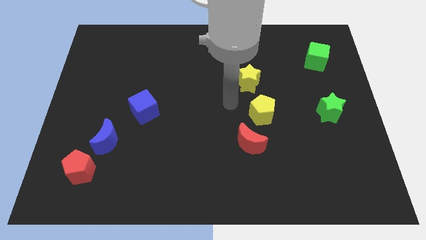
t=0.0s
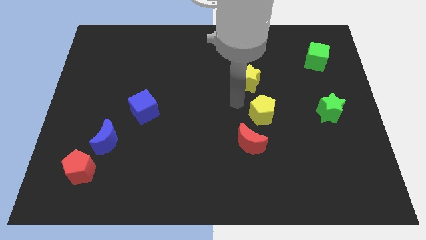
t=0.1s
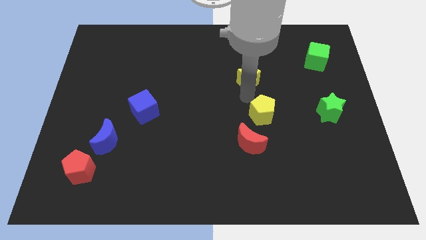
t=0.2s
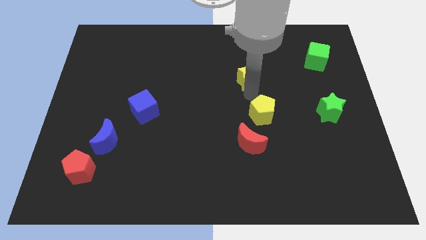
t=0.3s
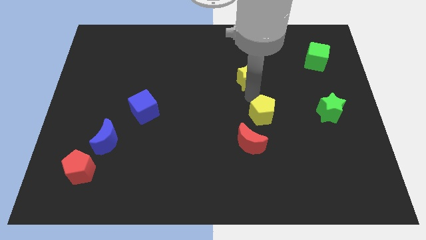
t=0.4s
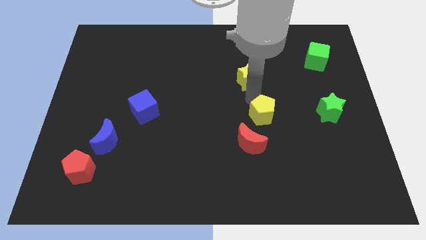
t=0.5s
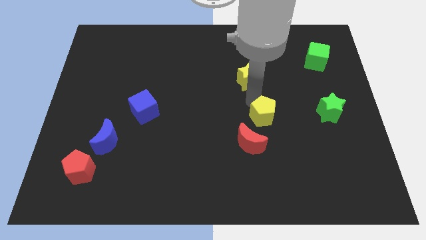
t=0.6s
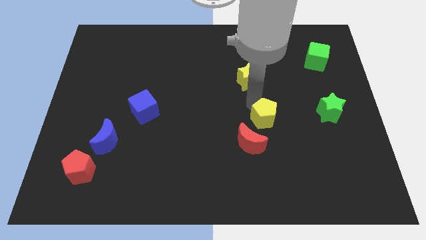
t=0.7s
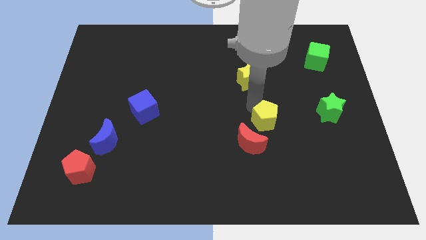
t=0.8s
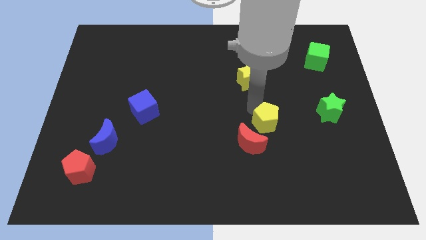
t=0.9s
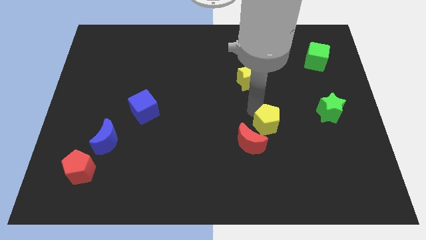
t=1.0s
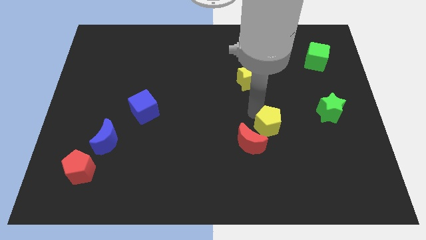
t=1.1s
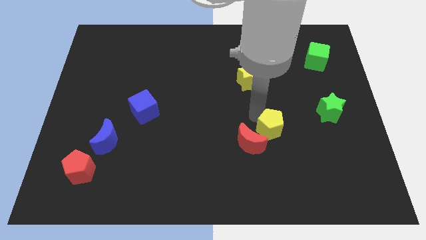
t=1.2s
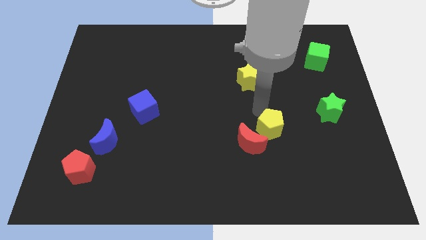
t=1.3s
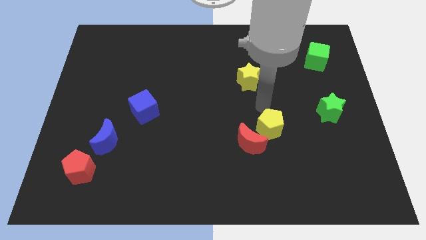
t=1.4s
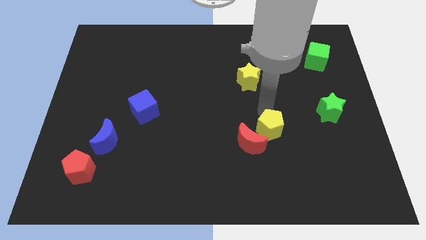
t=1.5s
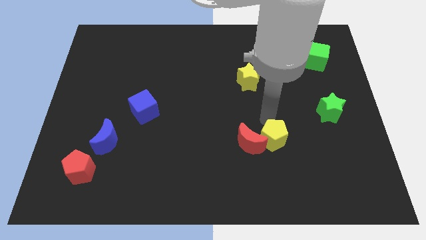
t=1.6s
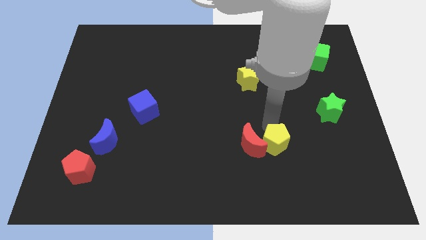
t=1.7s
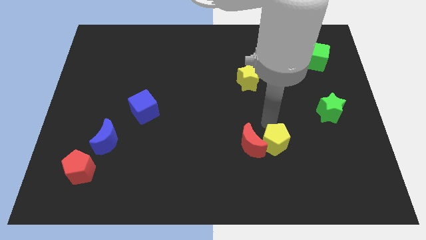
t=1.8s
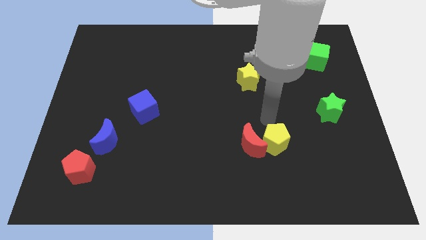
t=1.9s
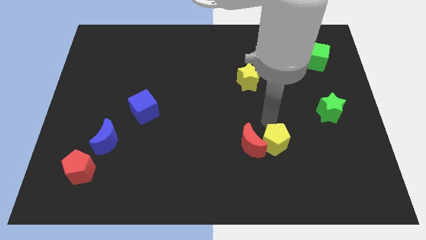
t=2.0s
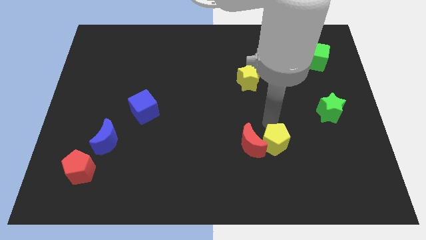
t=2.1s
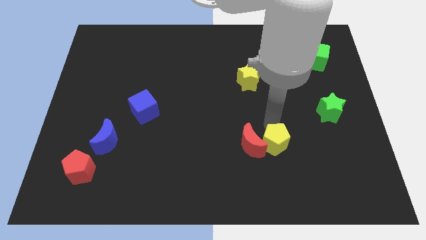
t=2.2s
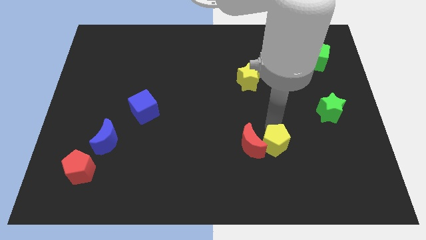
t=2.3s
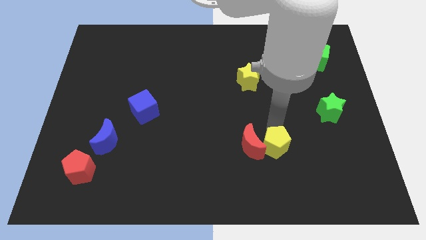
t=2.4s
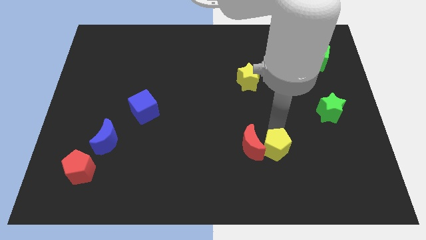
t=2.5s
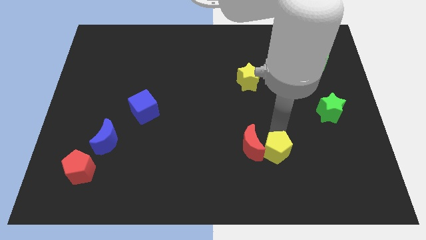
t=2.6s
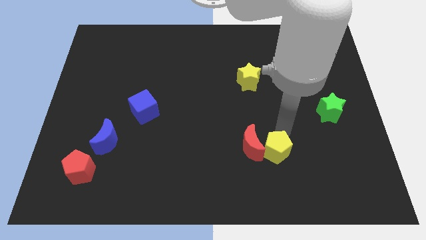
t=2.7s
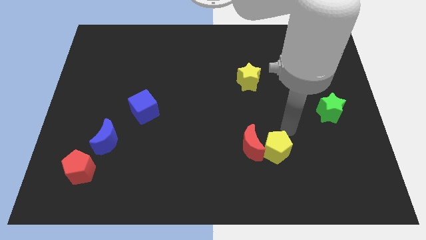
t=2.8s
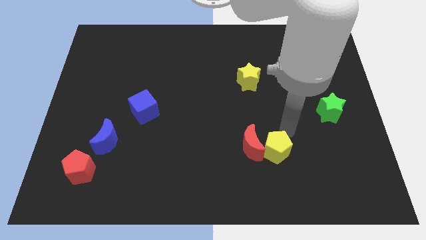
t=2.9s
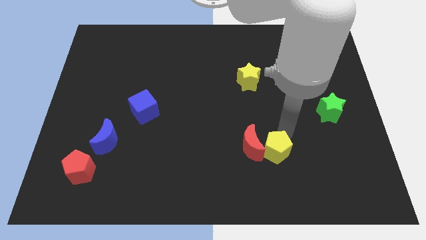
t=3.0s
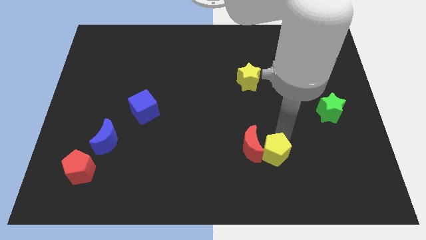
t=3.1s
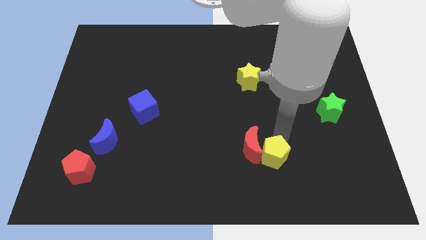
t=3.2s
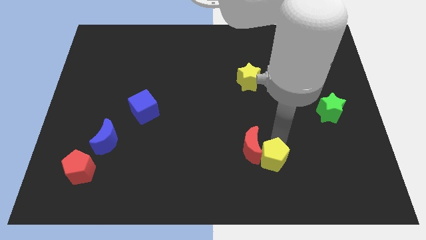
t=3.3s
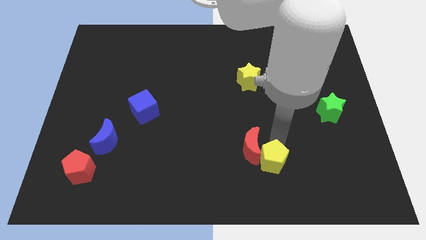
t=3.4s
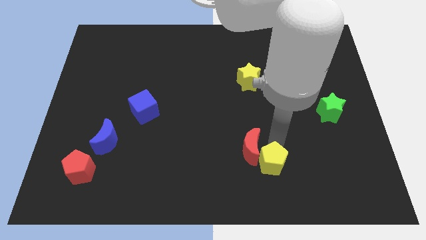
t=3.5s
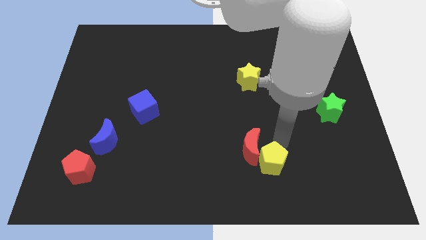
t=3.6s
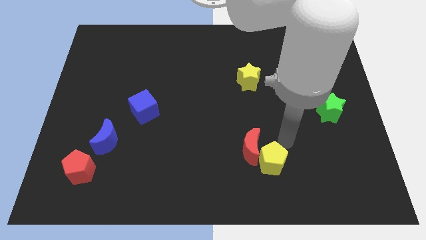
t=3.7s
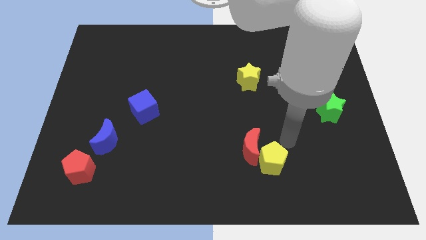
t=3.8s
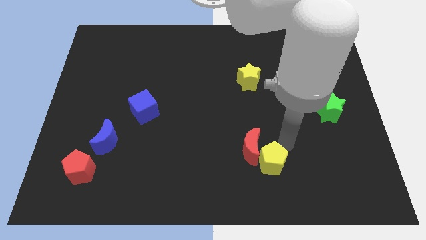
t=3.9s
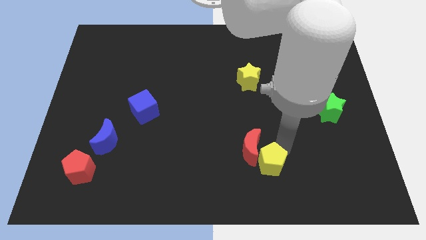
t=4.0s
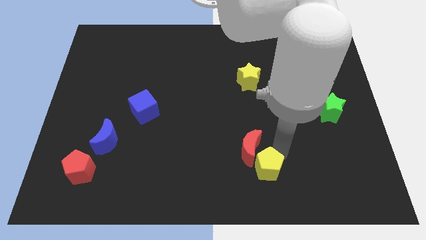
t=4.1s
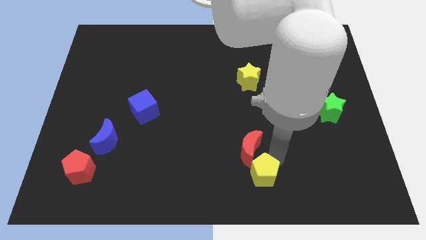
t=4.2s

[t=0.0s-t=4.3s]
slide the yellow pentagon to the bottom side

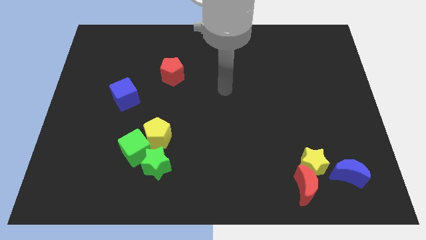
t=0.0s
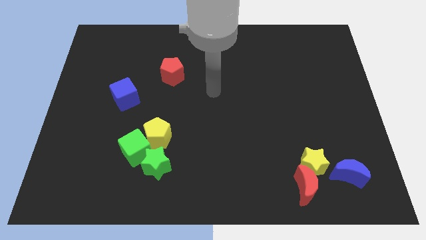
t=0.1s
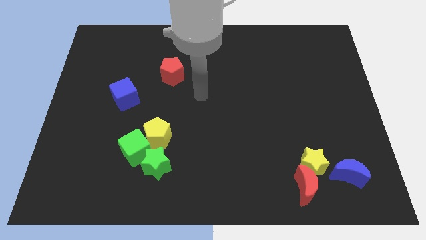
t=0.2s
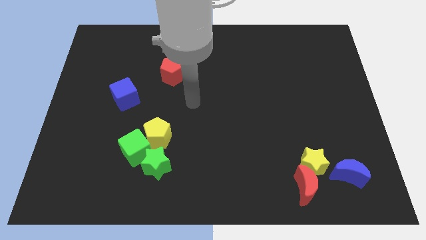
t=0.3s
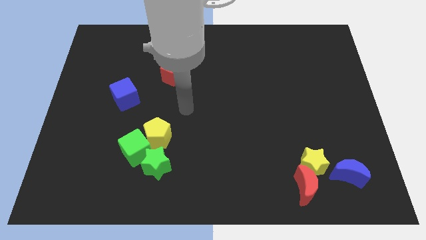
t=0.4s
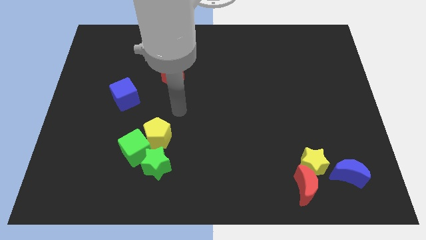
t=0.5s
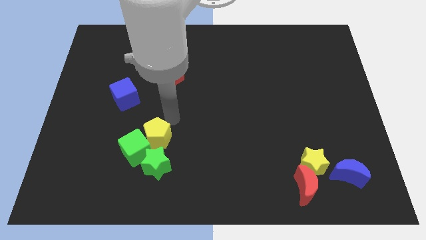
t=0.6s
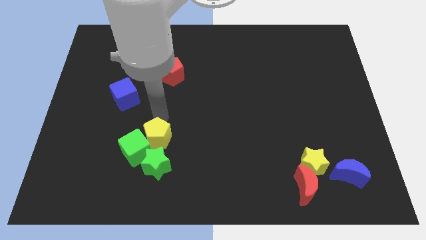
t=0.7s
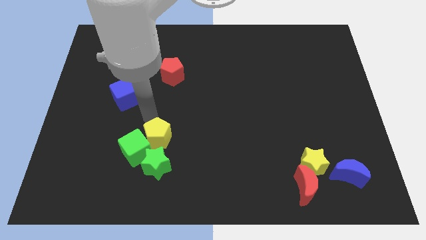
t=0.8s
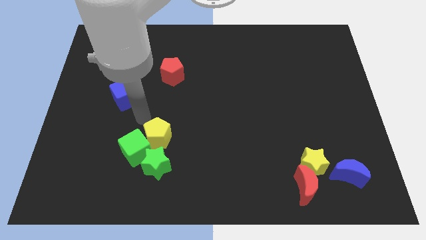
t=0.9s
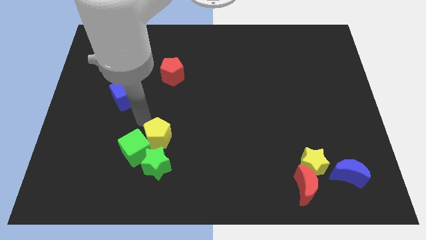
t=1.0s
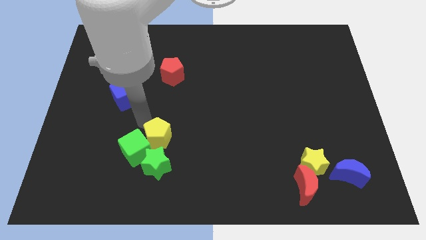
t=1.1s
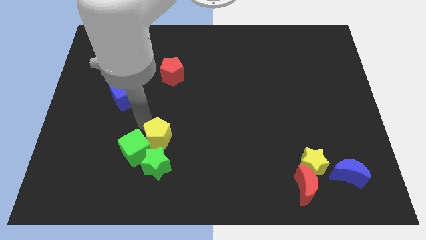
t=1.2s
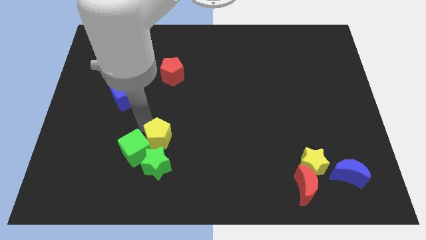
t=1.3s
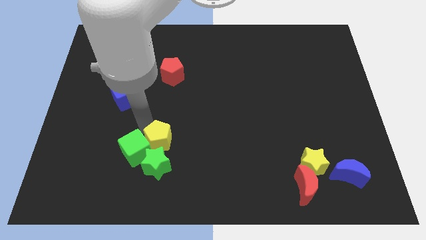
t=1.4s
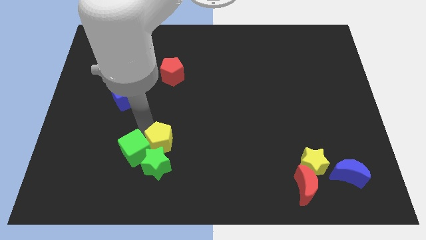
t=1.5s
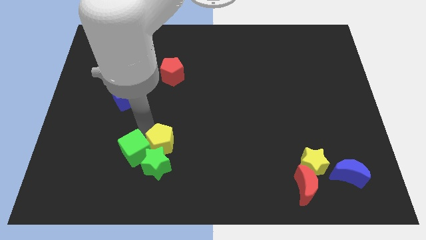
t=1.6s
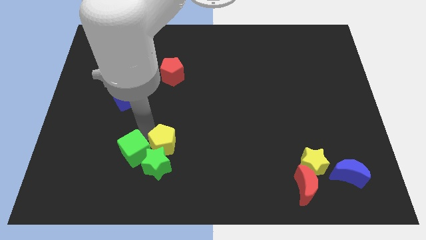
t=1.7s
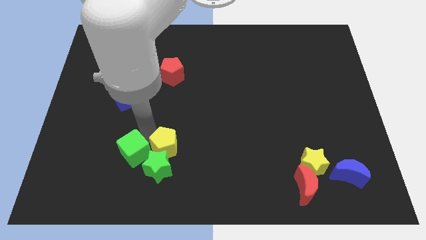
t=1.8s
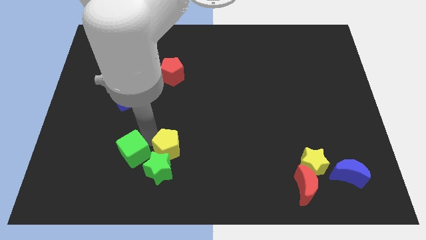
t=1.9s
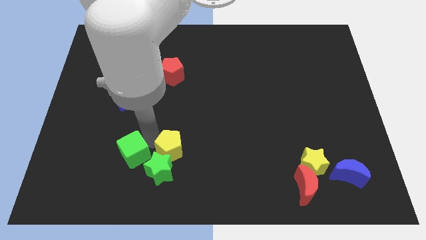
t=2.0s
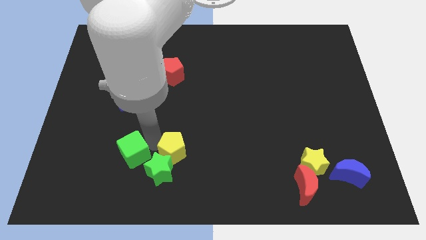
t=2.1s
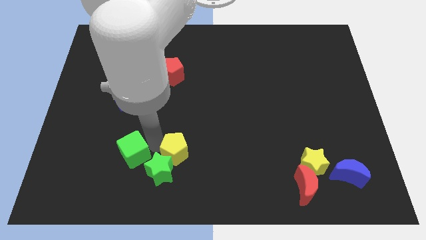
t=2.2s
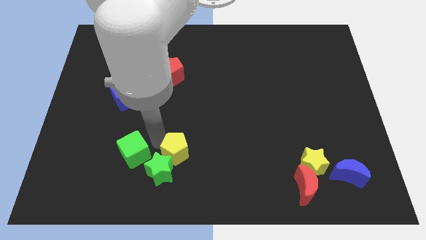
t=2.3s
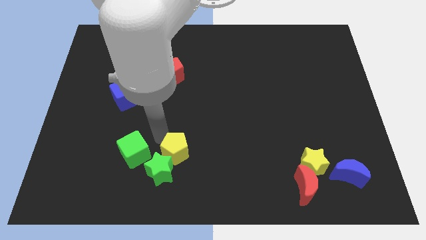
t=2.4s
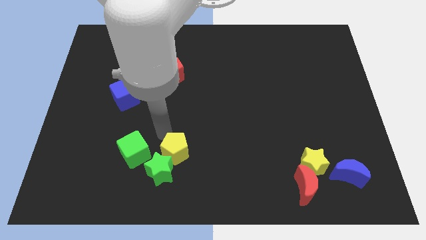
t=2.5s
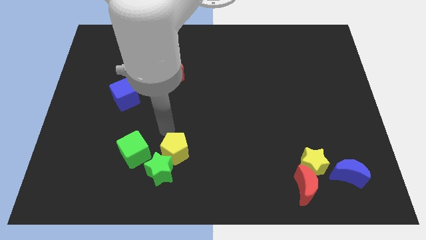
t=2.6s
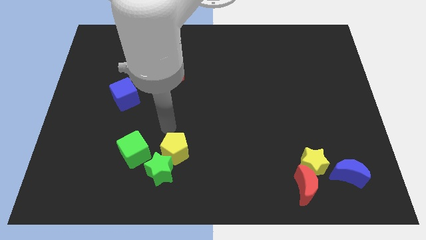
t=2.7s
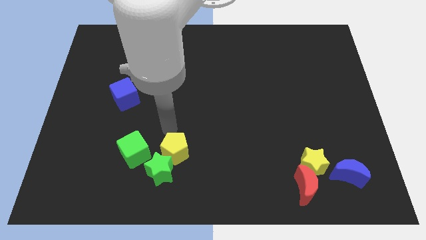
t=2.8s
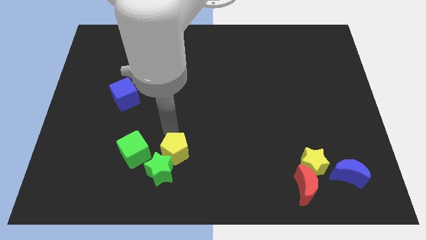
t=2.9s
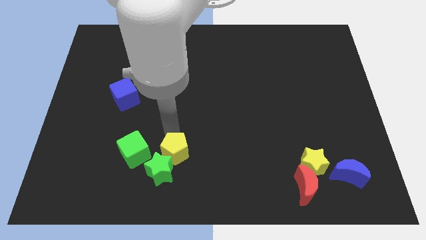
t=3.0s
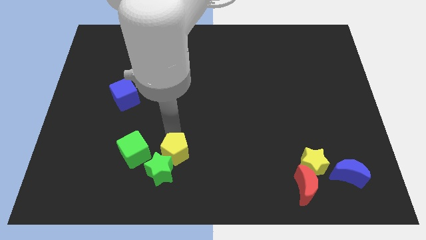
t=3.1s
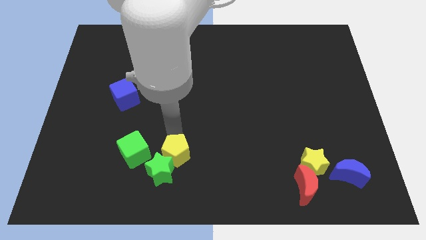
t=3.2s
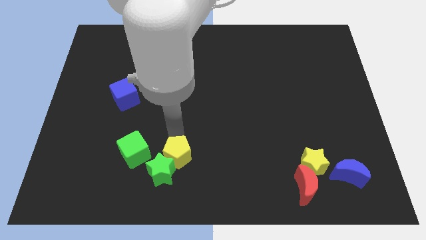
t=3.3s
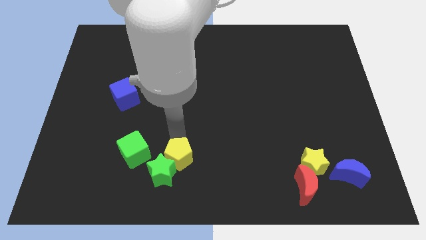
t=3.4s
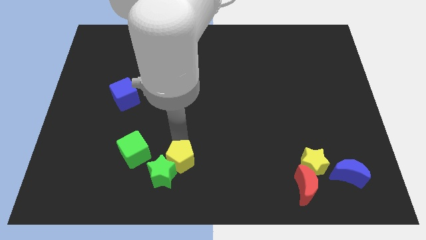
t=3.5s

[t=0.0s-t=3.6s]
move the yellow pentagon to the bottom
